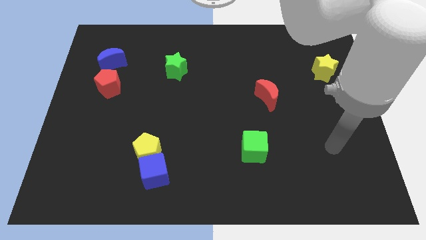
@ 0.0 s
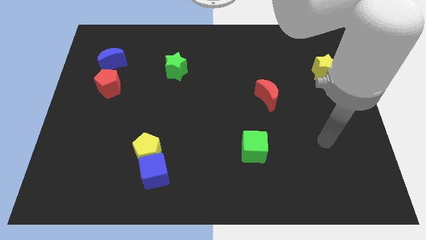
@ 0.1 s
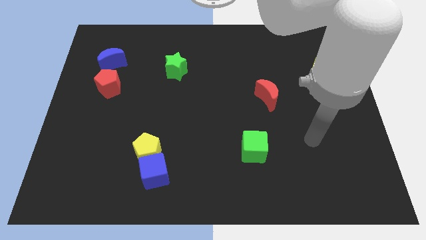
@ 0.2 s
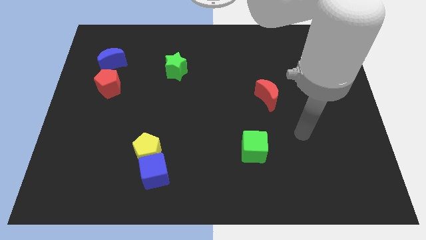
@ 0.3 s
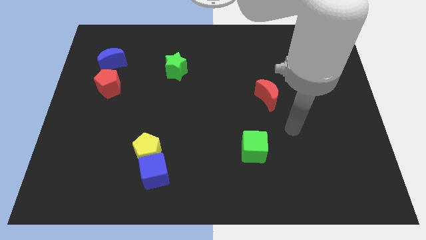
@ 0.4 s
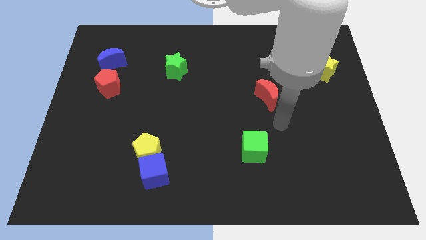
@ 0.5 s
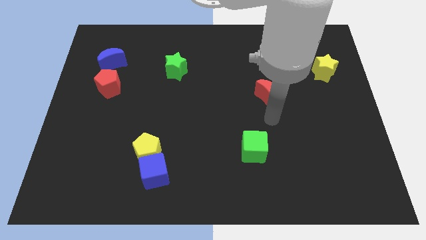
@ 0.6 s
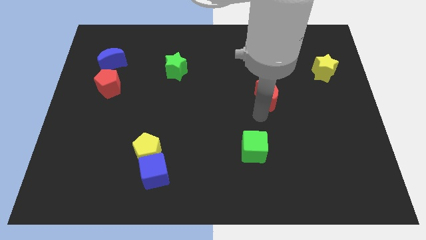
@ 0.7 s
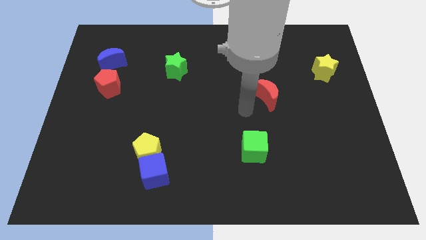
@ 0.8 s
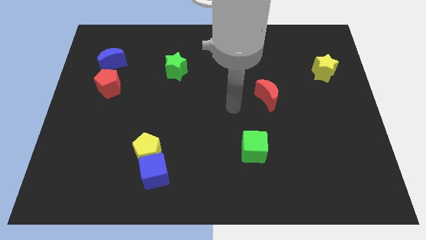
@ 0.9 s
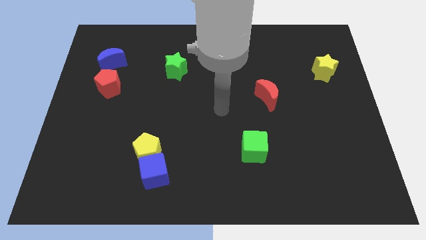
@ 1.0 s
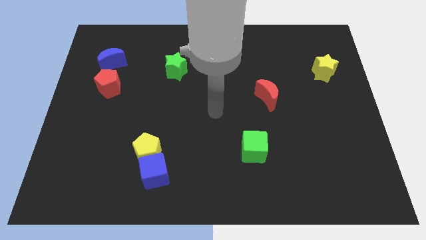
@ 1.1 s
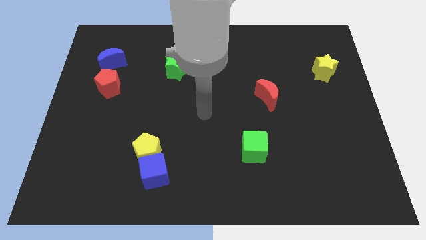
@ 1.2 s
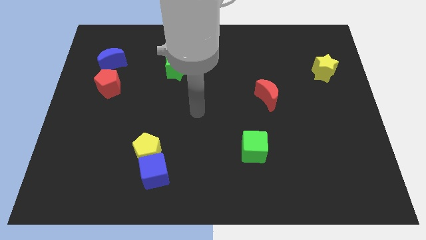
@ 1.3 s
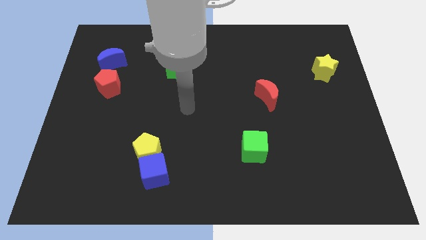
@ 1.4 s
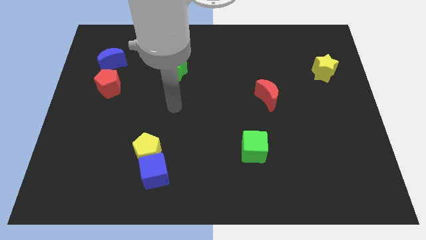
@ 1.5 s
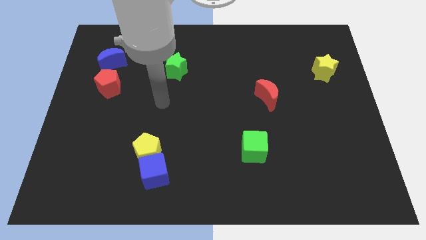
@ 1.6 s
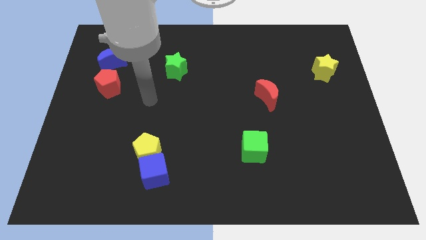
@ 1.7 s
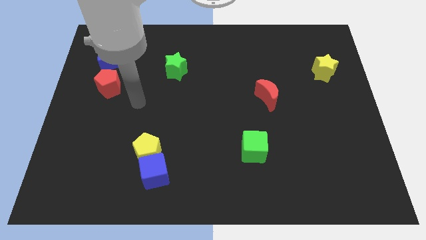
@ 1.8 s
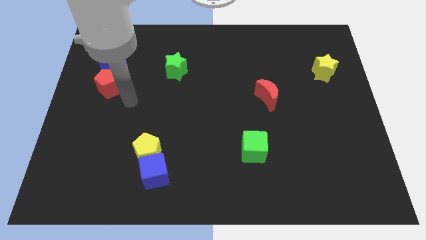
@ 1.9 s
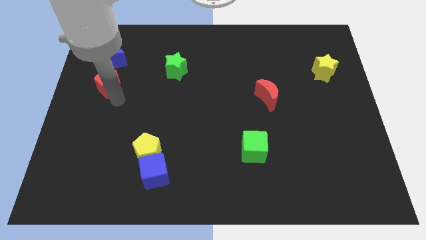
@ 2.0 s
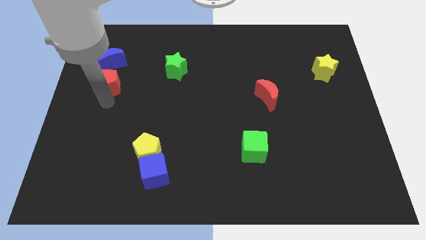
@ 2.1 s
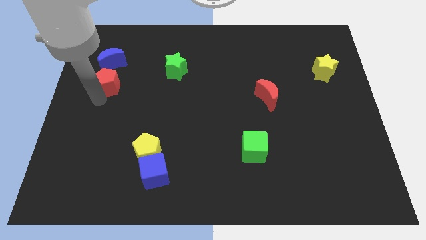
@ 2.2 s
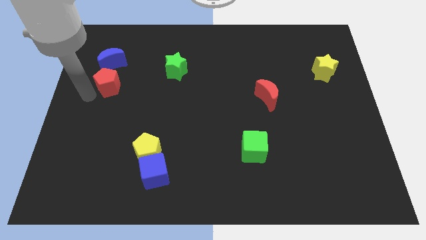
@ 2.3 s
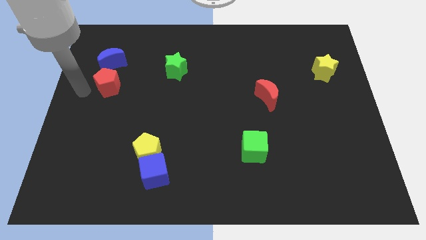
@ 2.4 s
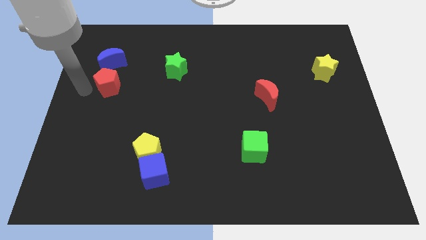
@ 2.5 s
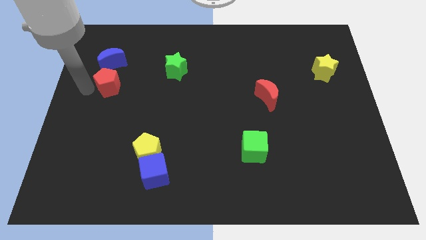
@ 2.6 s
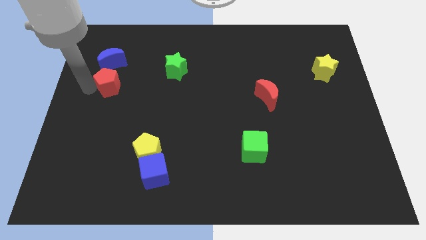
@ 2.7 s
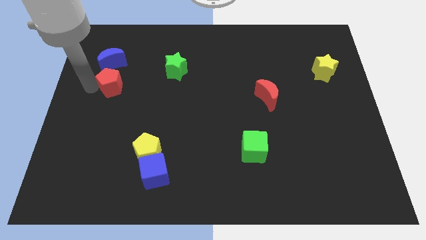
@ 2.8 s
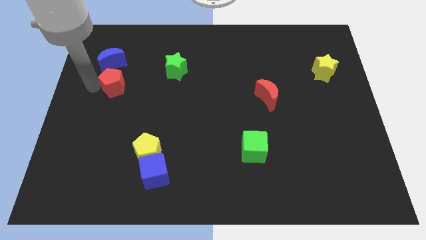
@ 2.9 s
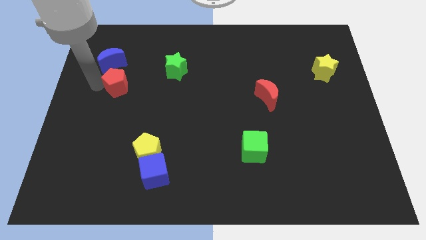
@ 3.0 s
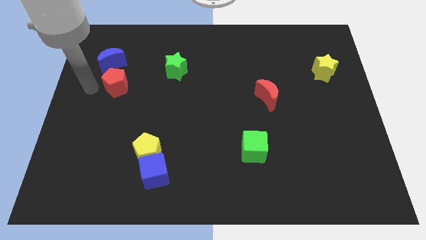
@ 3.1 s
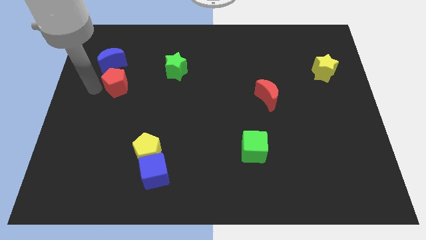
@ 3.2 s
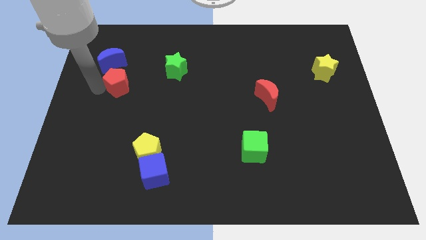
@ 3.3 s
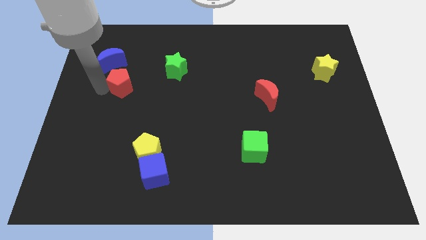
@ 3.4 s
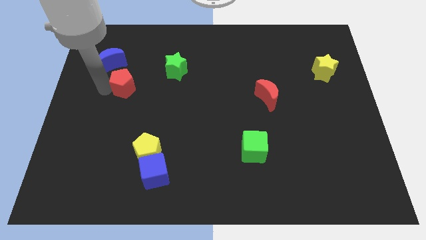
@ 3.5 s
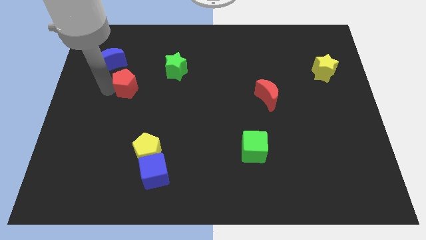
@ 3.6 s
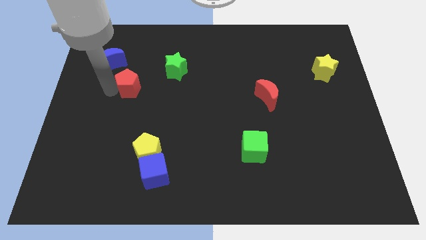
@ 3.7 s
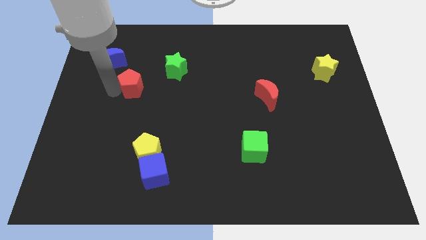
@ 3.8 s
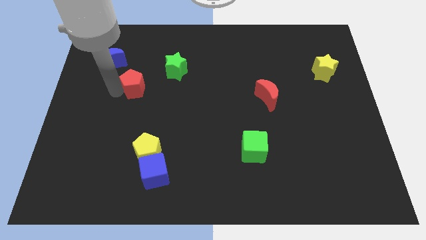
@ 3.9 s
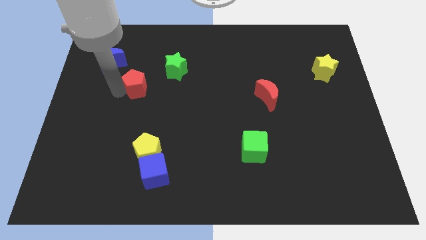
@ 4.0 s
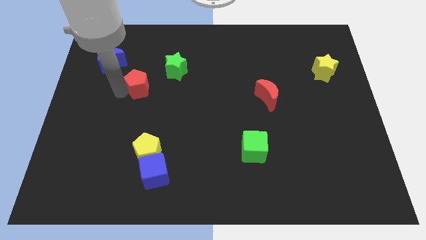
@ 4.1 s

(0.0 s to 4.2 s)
slightly move the red pentagon right

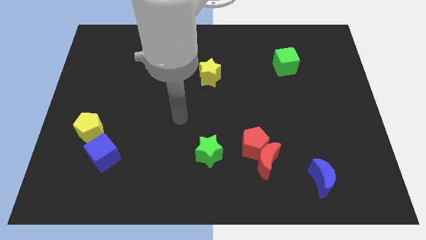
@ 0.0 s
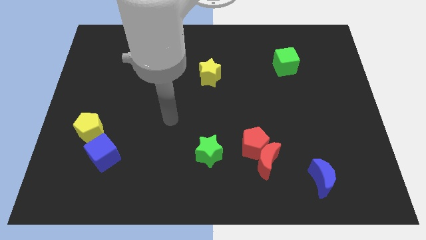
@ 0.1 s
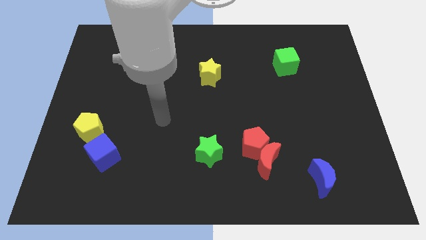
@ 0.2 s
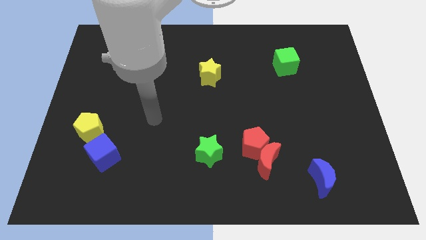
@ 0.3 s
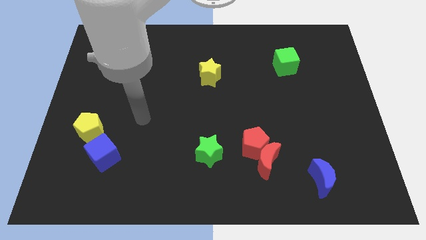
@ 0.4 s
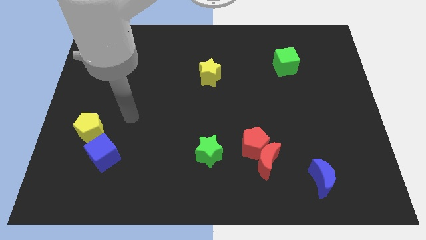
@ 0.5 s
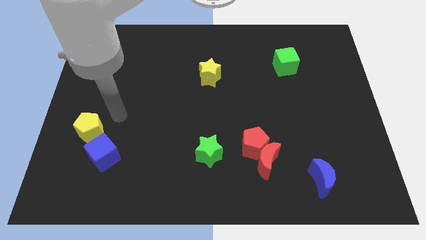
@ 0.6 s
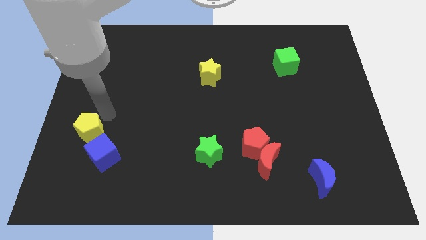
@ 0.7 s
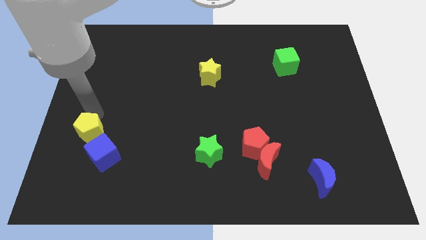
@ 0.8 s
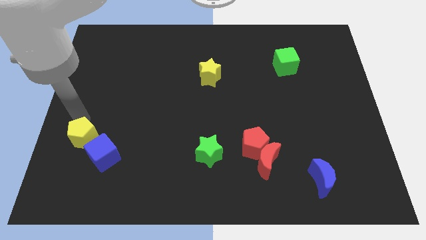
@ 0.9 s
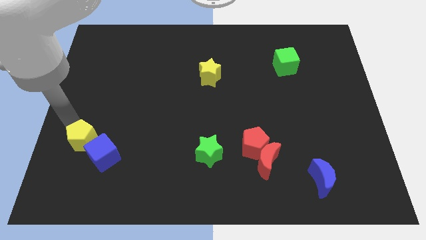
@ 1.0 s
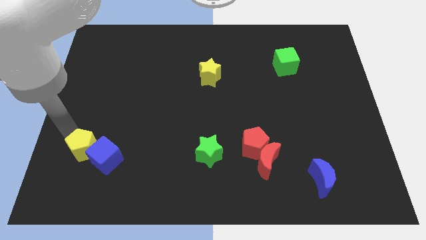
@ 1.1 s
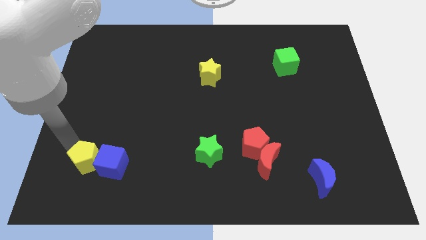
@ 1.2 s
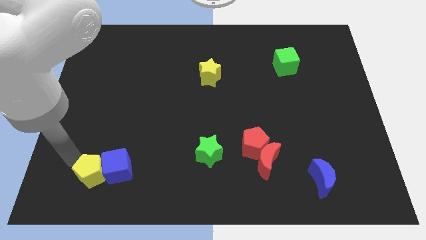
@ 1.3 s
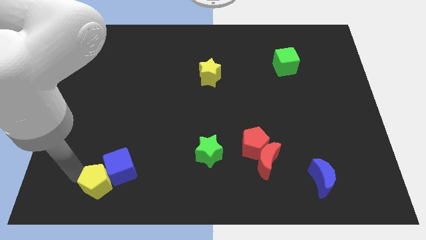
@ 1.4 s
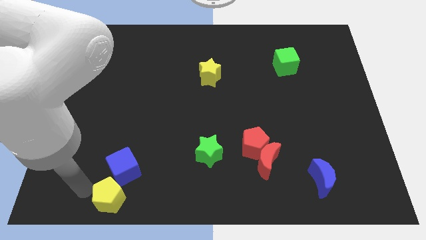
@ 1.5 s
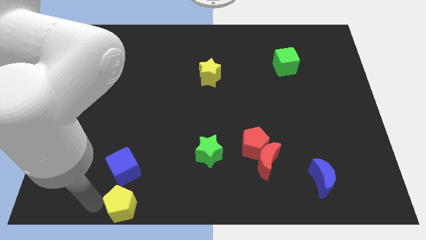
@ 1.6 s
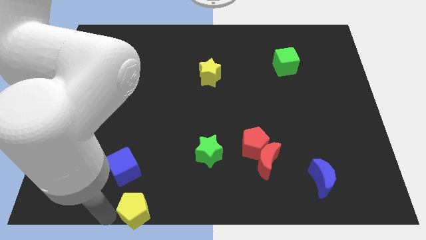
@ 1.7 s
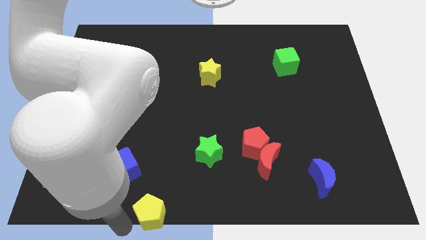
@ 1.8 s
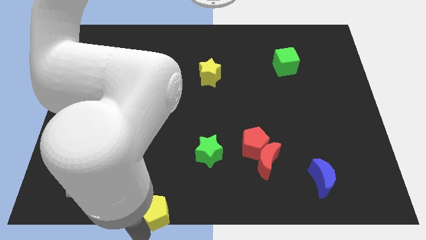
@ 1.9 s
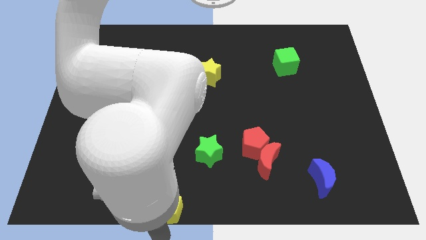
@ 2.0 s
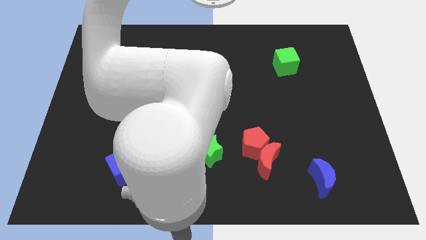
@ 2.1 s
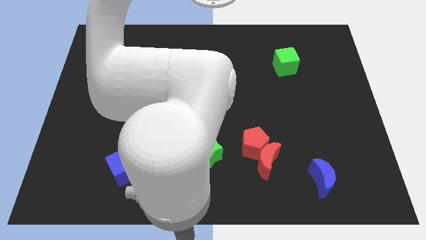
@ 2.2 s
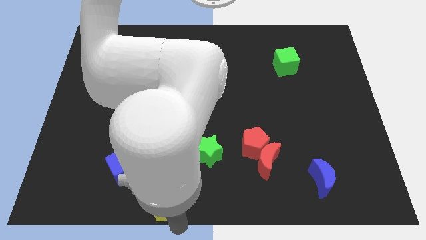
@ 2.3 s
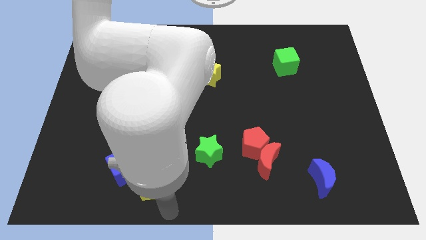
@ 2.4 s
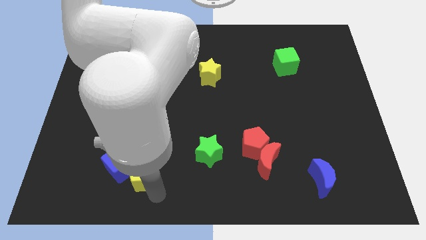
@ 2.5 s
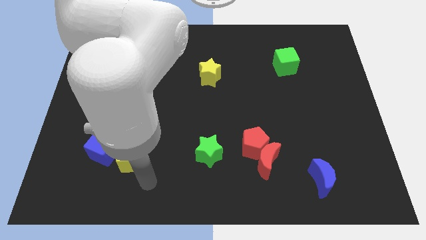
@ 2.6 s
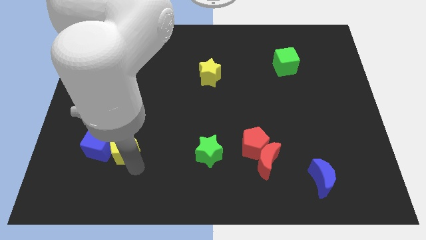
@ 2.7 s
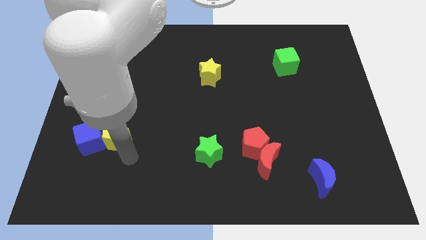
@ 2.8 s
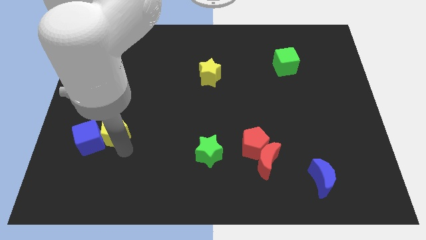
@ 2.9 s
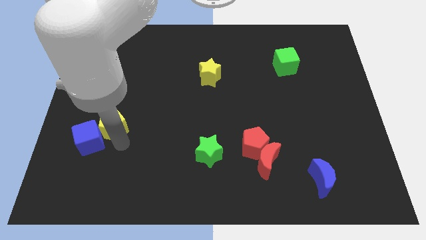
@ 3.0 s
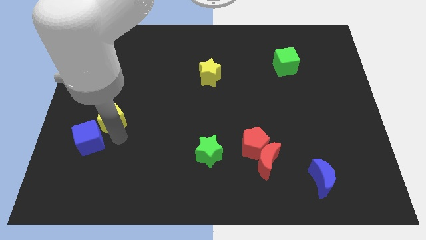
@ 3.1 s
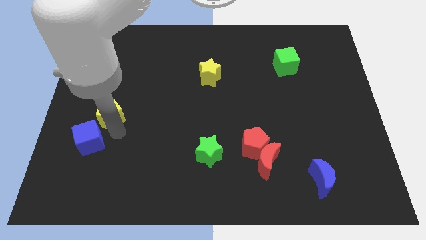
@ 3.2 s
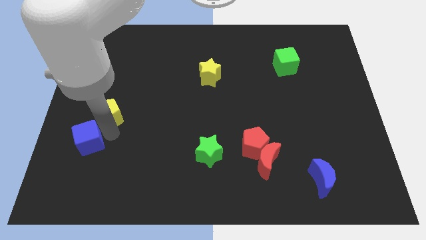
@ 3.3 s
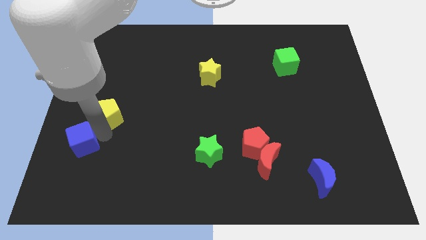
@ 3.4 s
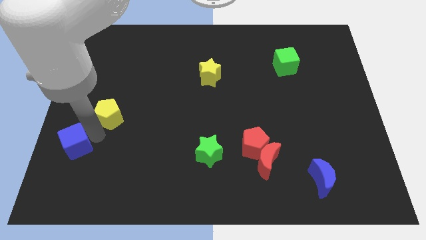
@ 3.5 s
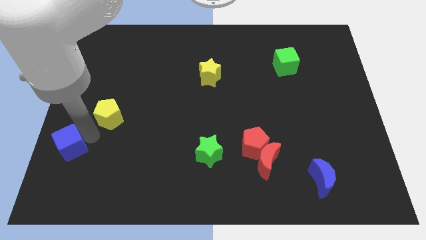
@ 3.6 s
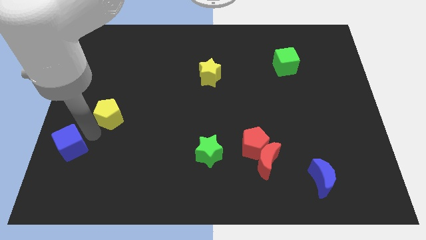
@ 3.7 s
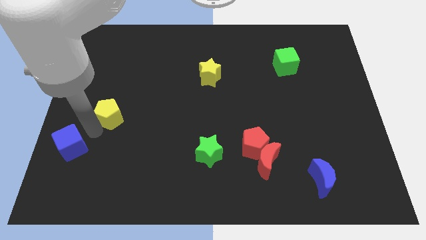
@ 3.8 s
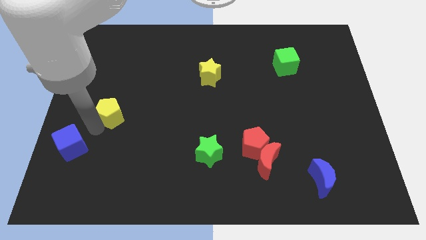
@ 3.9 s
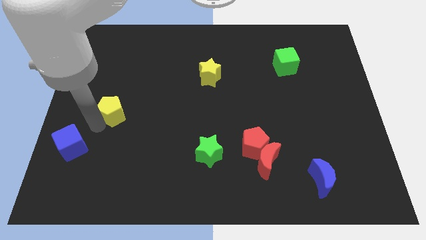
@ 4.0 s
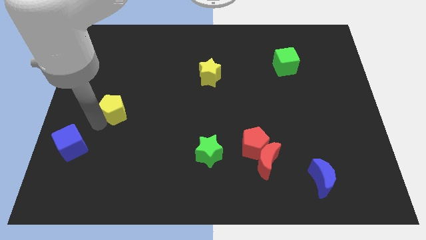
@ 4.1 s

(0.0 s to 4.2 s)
push the yellow pentagon somewhat up and right
